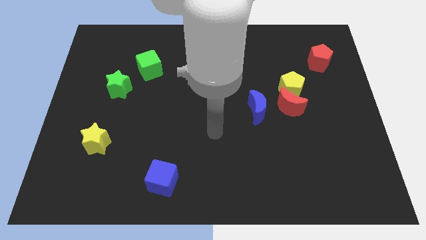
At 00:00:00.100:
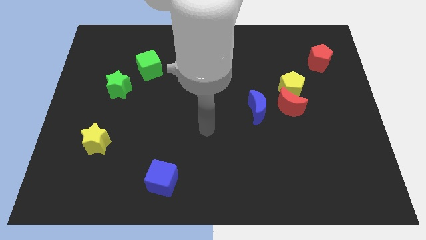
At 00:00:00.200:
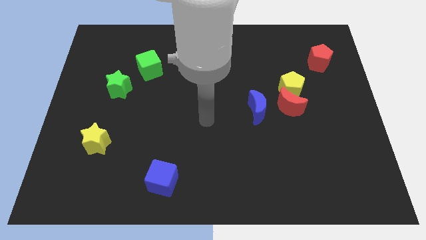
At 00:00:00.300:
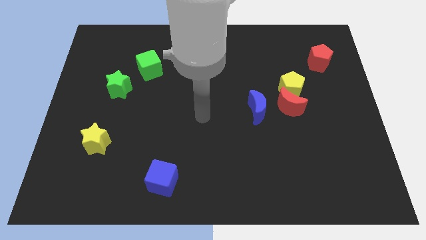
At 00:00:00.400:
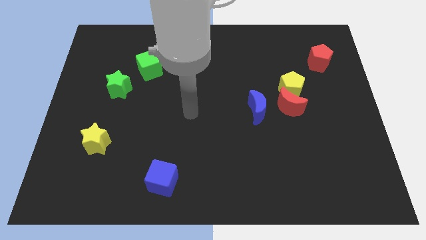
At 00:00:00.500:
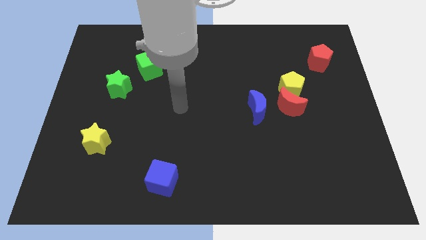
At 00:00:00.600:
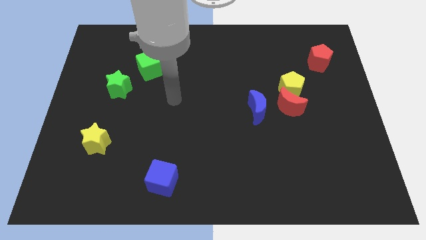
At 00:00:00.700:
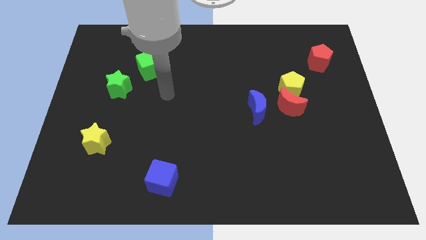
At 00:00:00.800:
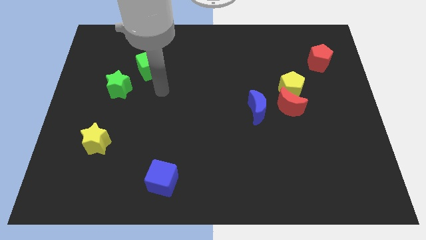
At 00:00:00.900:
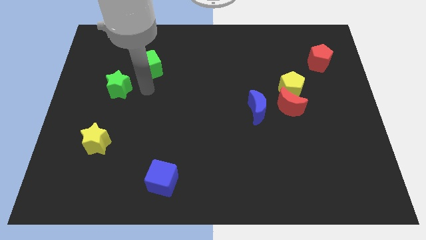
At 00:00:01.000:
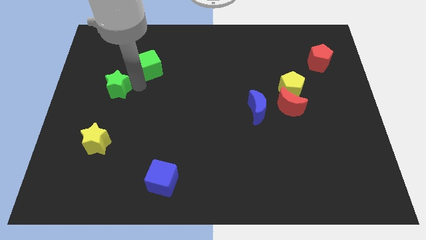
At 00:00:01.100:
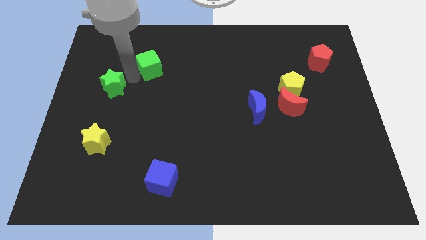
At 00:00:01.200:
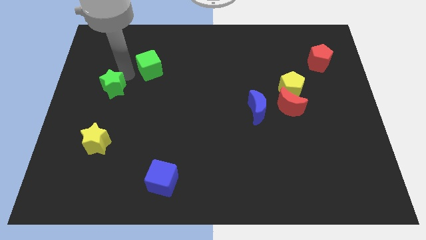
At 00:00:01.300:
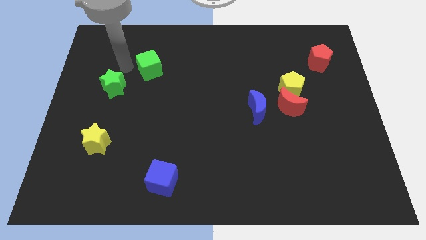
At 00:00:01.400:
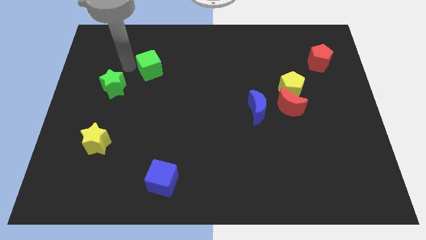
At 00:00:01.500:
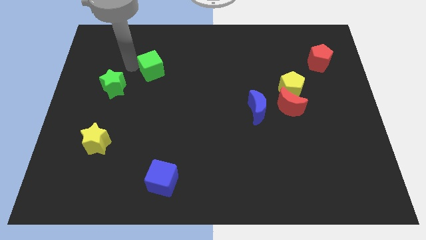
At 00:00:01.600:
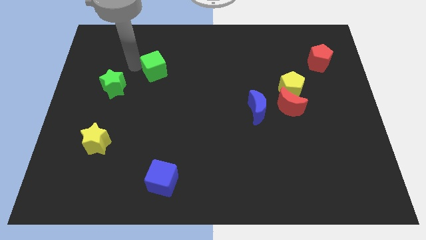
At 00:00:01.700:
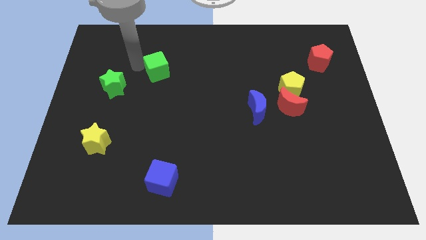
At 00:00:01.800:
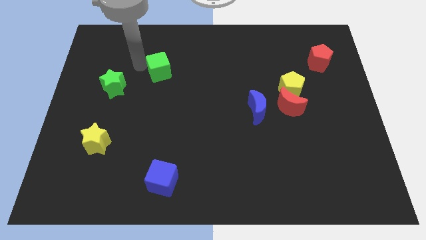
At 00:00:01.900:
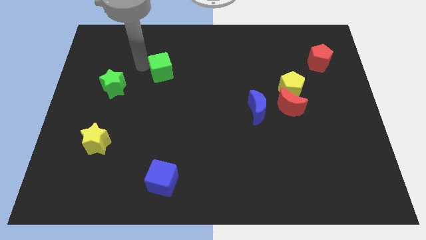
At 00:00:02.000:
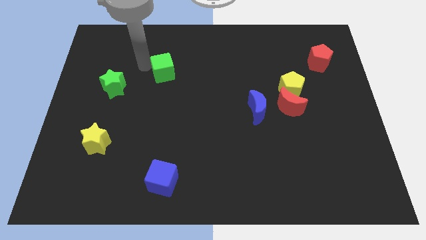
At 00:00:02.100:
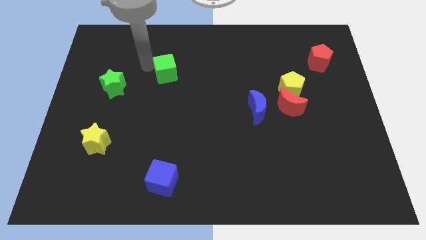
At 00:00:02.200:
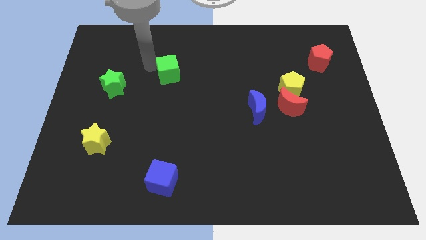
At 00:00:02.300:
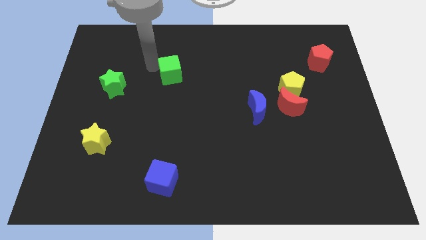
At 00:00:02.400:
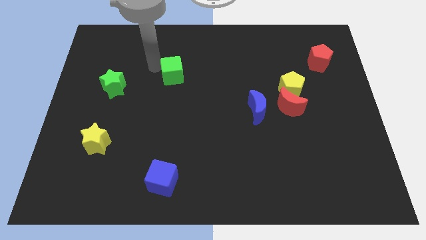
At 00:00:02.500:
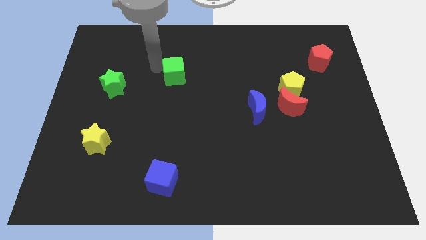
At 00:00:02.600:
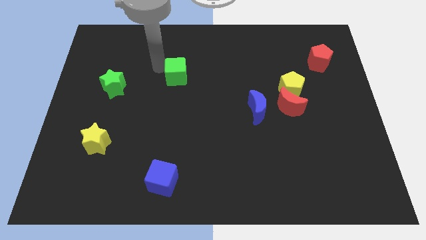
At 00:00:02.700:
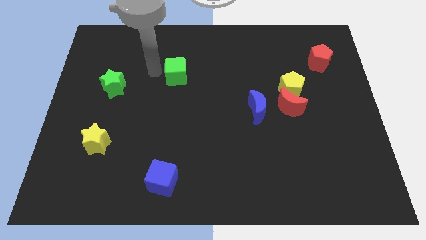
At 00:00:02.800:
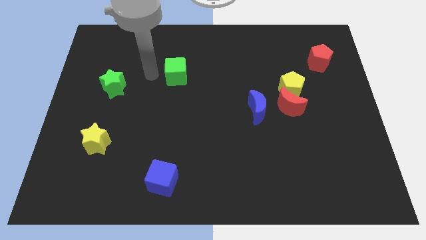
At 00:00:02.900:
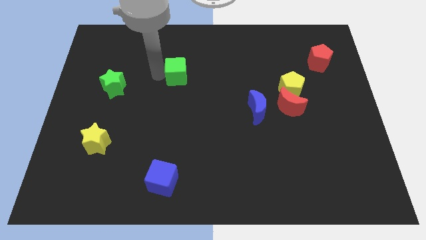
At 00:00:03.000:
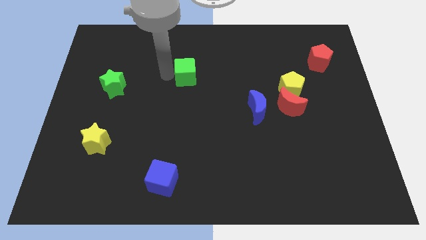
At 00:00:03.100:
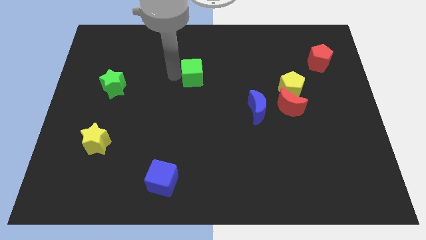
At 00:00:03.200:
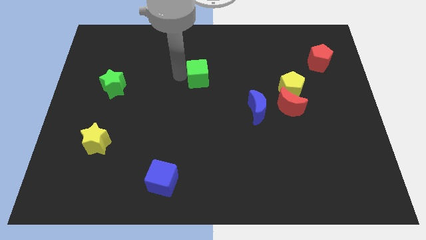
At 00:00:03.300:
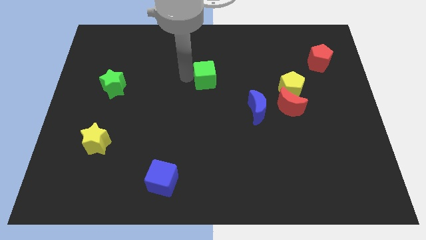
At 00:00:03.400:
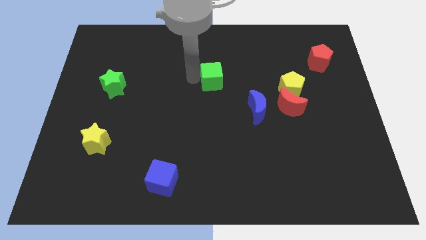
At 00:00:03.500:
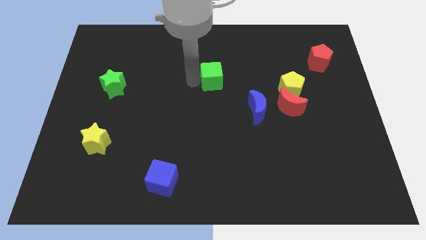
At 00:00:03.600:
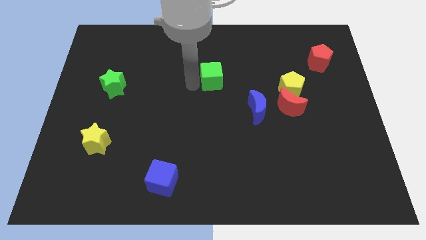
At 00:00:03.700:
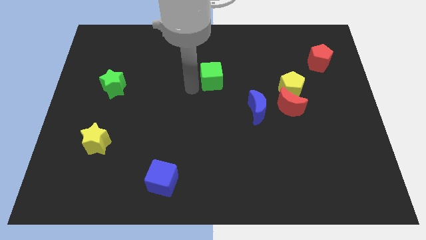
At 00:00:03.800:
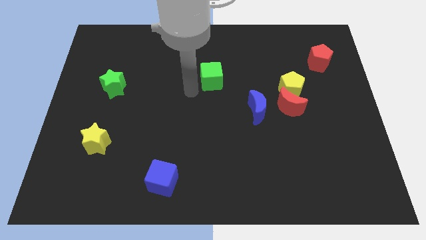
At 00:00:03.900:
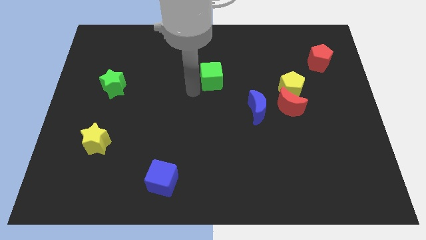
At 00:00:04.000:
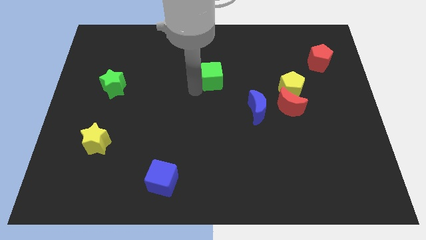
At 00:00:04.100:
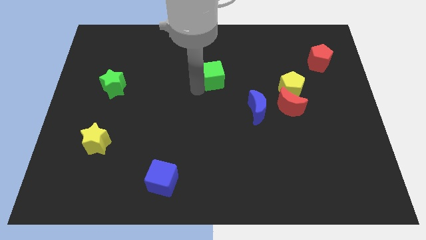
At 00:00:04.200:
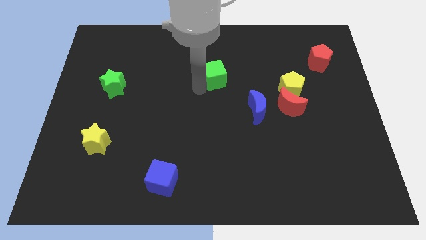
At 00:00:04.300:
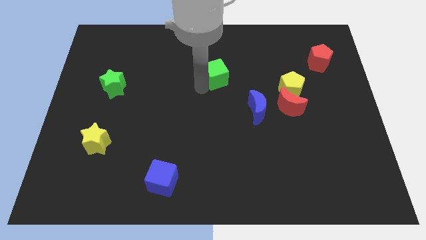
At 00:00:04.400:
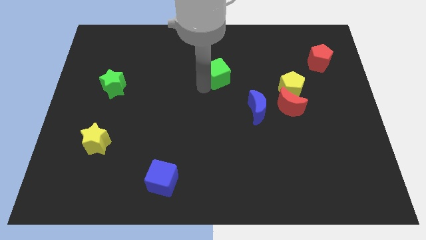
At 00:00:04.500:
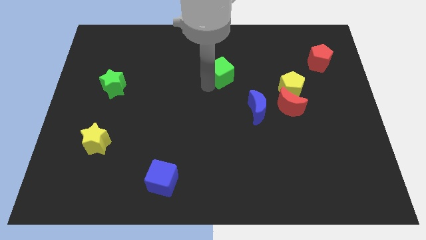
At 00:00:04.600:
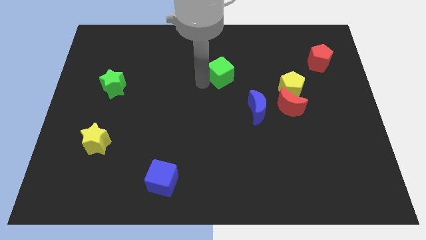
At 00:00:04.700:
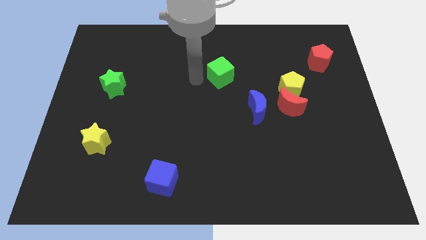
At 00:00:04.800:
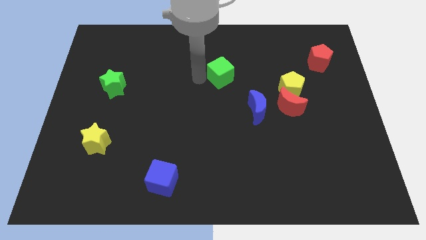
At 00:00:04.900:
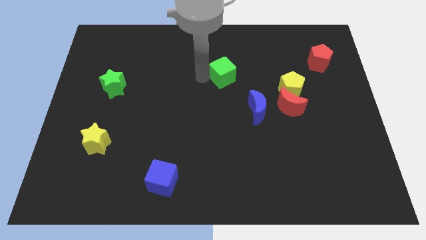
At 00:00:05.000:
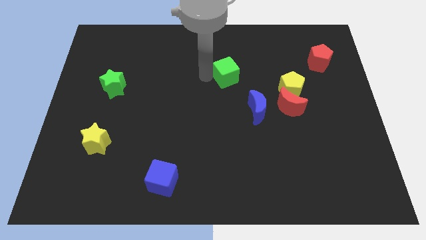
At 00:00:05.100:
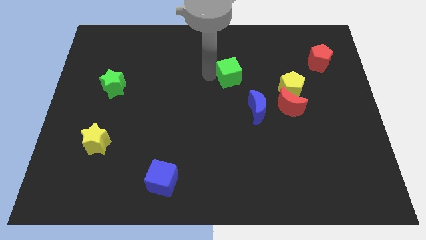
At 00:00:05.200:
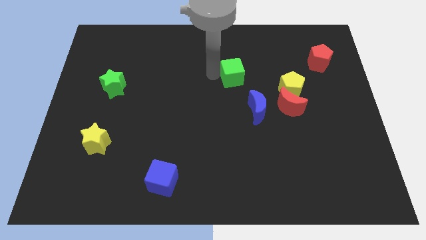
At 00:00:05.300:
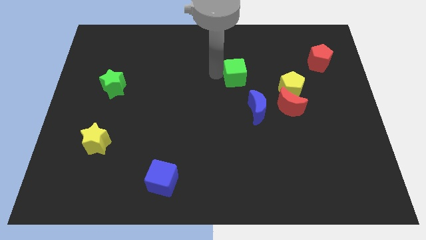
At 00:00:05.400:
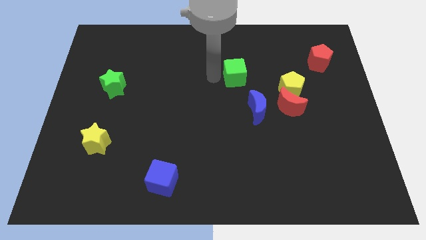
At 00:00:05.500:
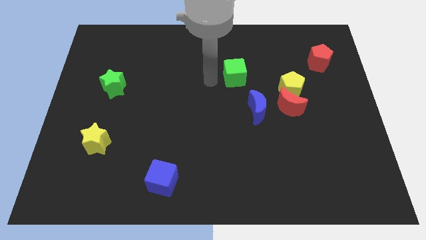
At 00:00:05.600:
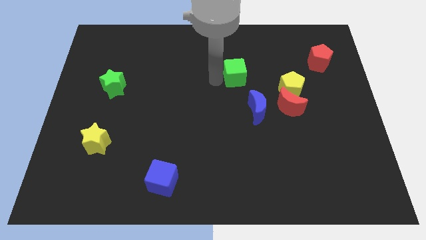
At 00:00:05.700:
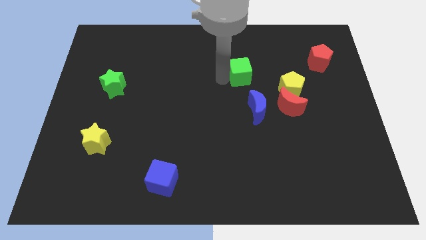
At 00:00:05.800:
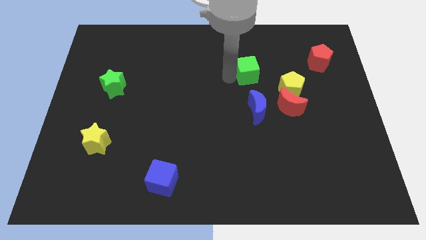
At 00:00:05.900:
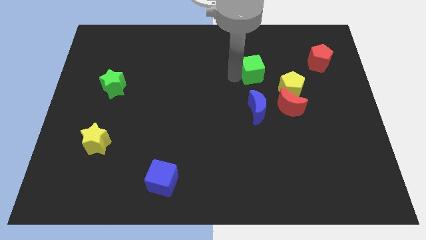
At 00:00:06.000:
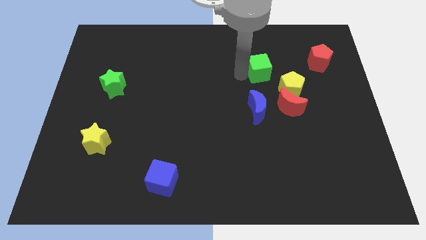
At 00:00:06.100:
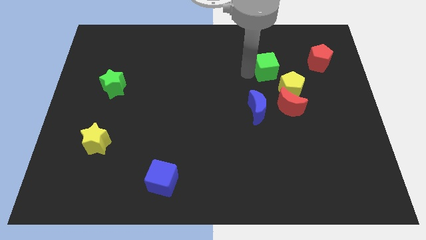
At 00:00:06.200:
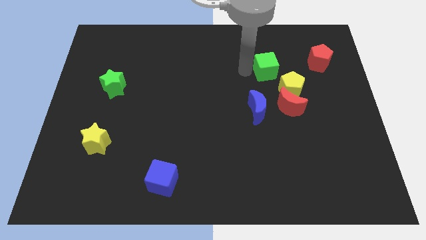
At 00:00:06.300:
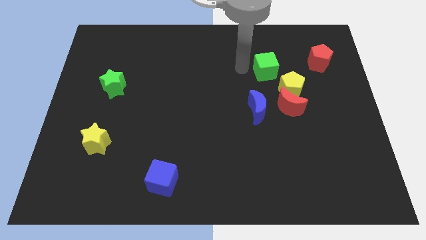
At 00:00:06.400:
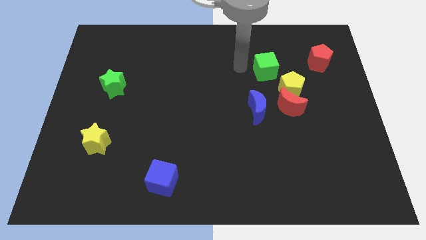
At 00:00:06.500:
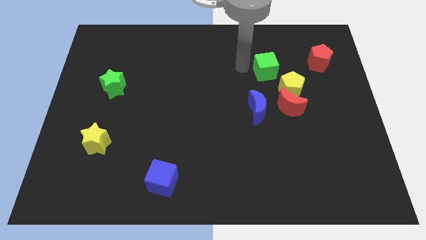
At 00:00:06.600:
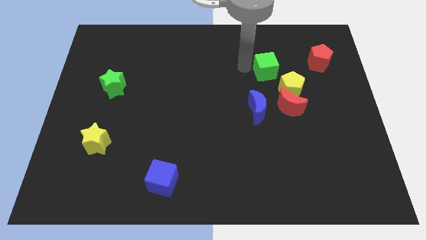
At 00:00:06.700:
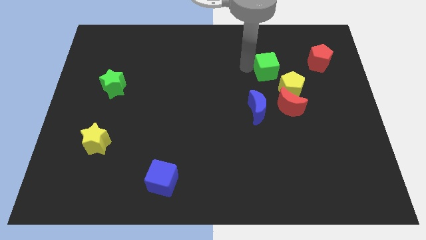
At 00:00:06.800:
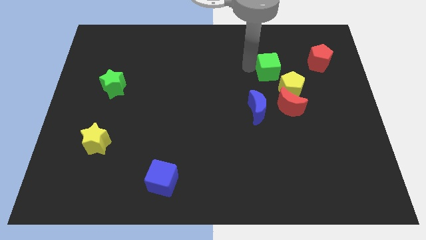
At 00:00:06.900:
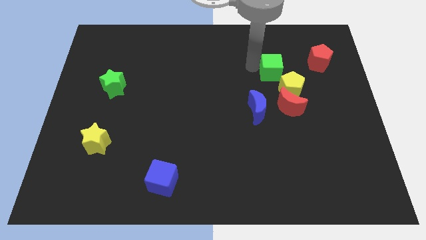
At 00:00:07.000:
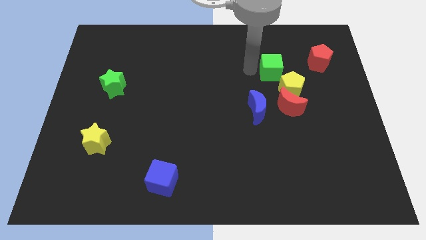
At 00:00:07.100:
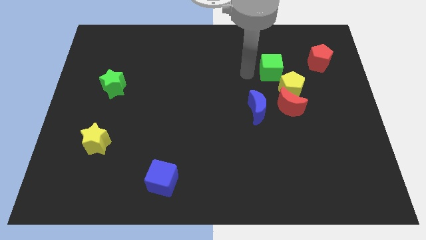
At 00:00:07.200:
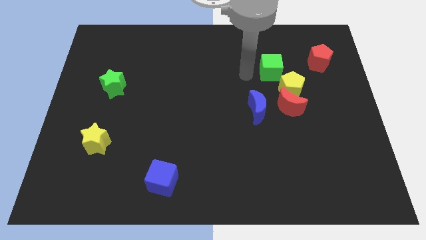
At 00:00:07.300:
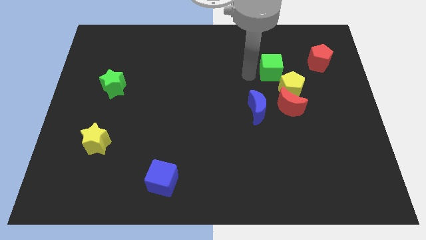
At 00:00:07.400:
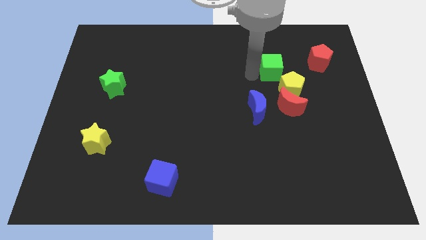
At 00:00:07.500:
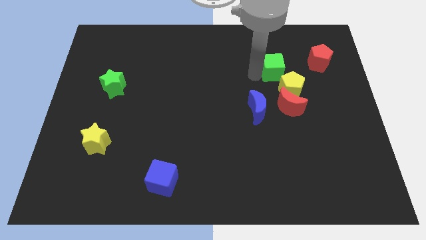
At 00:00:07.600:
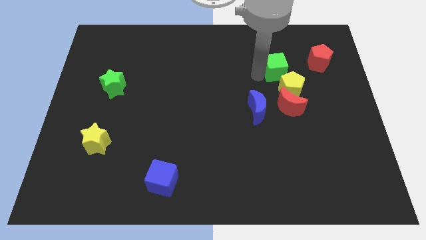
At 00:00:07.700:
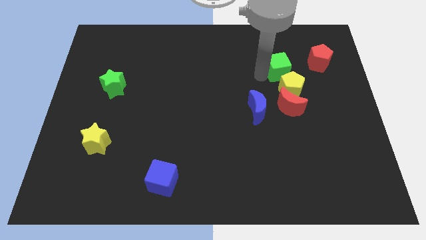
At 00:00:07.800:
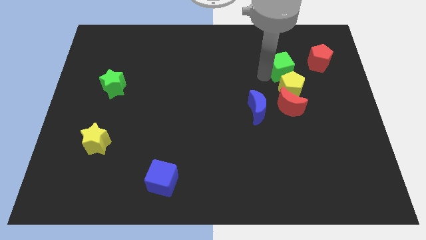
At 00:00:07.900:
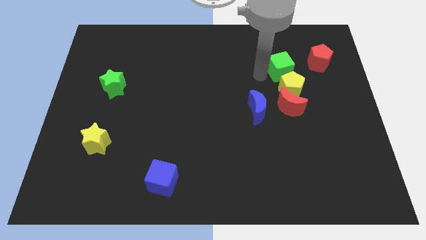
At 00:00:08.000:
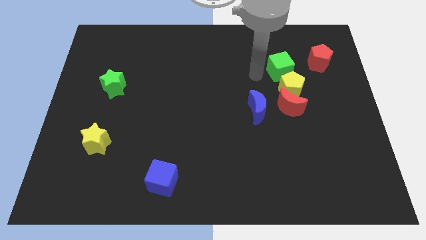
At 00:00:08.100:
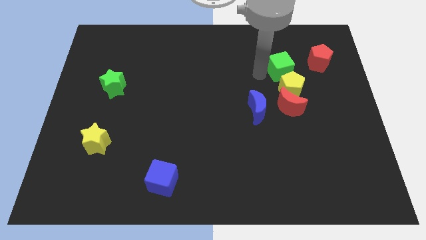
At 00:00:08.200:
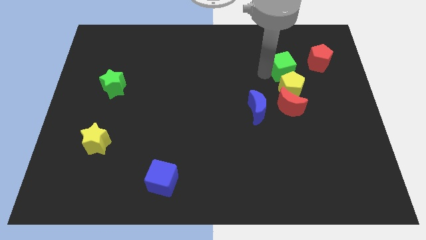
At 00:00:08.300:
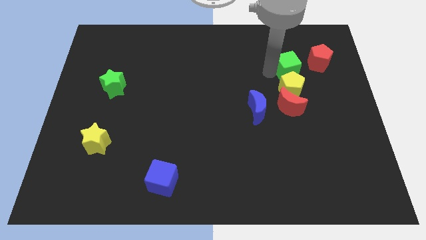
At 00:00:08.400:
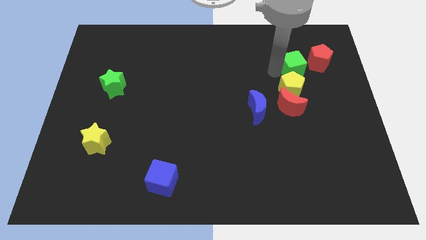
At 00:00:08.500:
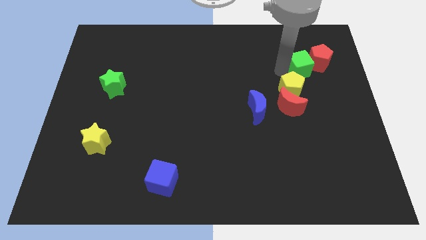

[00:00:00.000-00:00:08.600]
slide the green cube towards the red pentagon
